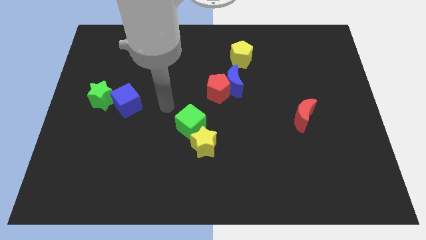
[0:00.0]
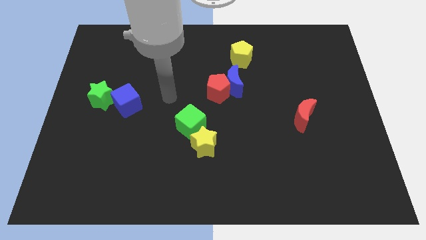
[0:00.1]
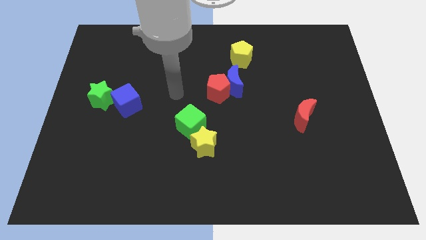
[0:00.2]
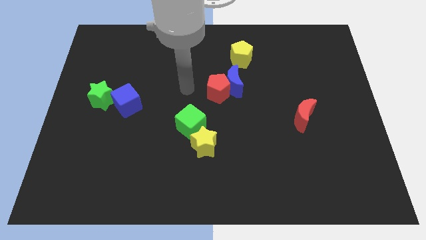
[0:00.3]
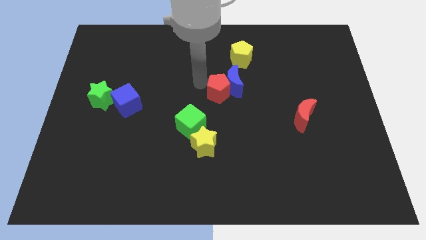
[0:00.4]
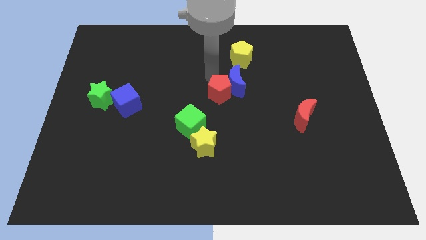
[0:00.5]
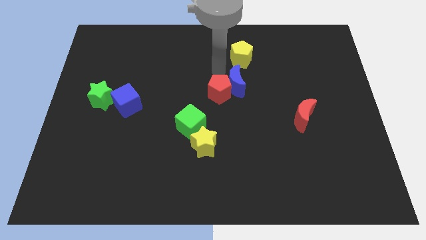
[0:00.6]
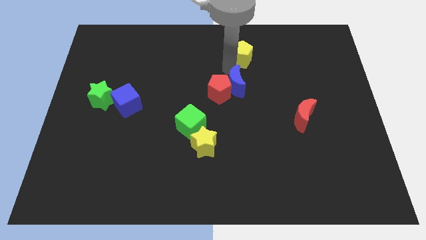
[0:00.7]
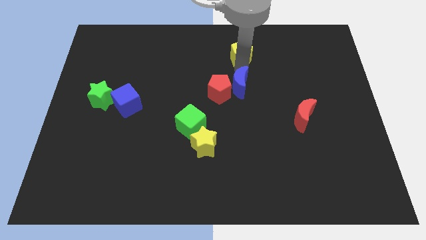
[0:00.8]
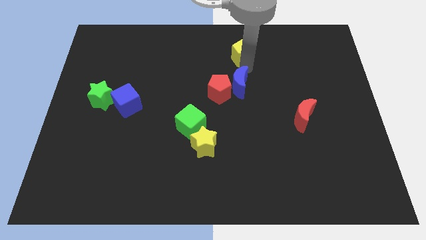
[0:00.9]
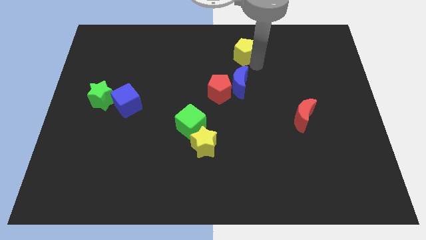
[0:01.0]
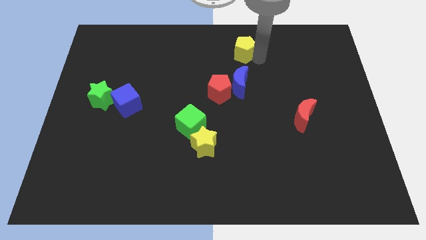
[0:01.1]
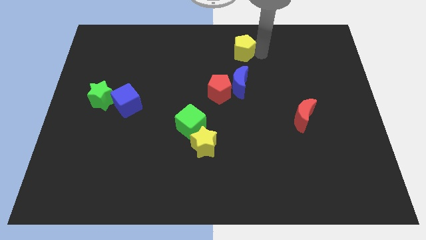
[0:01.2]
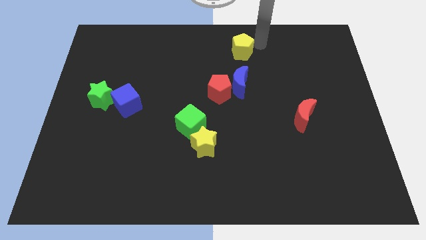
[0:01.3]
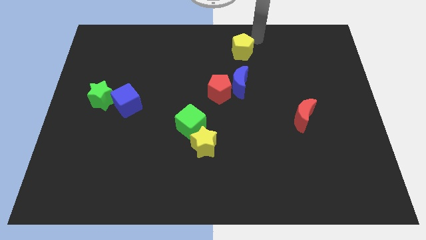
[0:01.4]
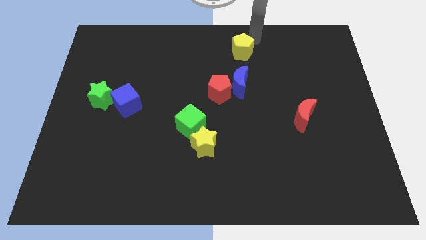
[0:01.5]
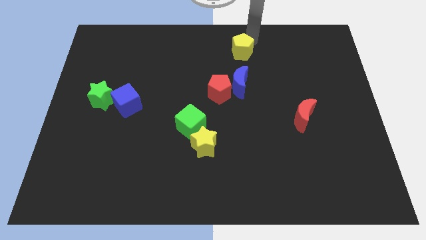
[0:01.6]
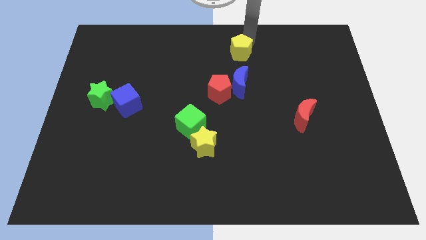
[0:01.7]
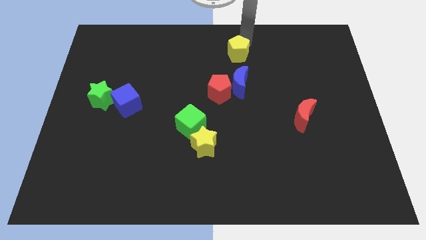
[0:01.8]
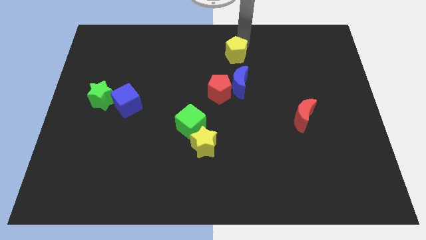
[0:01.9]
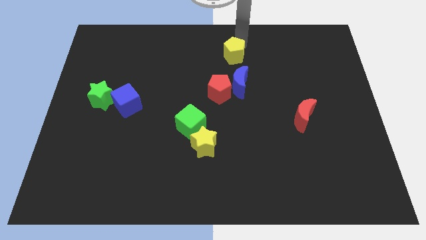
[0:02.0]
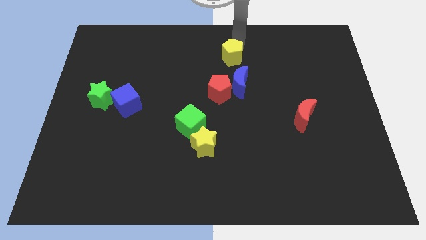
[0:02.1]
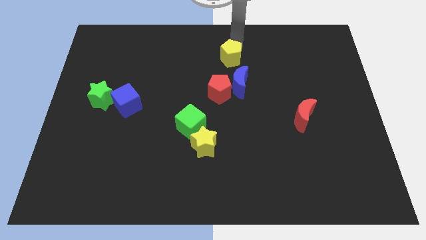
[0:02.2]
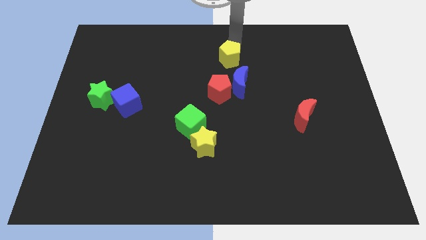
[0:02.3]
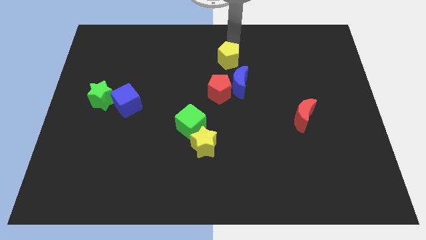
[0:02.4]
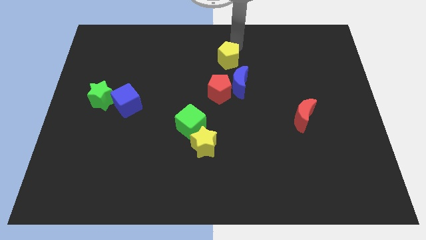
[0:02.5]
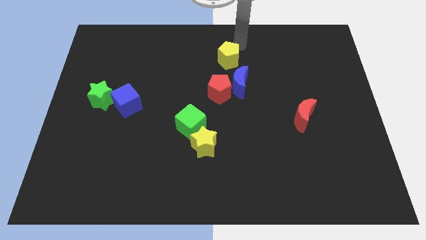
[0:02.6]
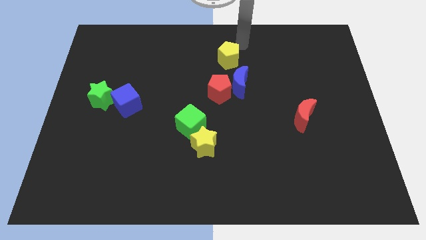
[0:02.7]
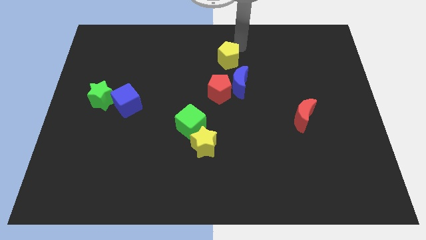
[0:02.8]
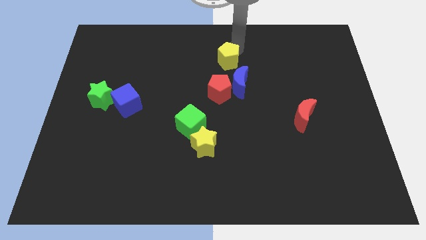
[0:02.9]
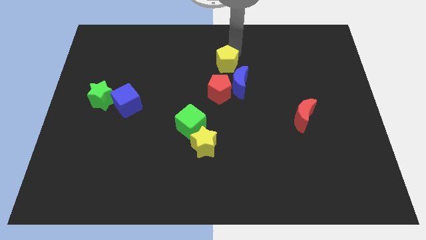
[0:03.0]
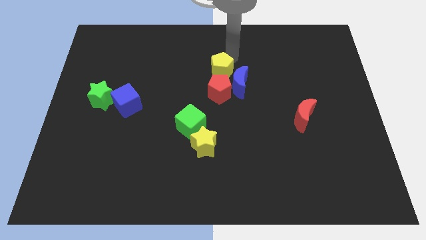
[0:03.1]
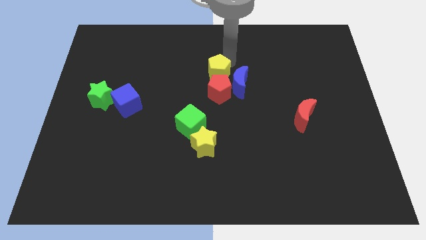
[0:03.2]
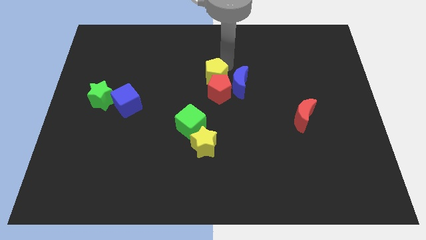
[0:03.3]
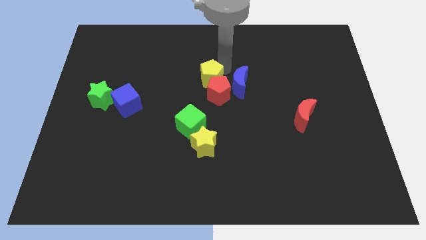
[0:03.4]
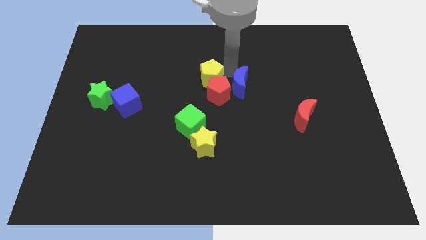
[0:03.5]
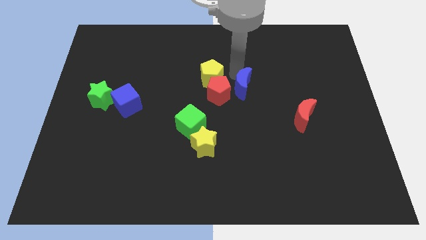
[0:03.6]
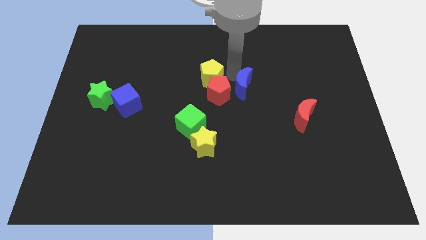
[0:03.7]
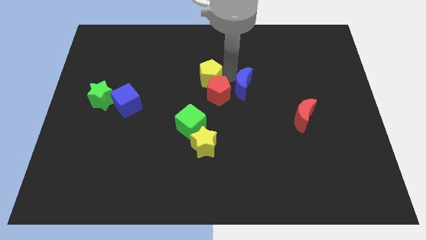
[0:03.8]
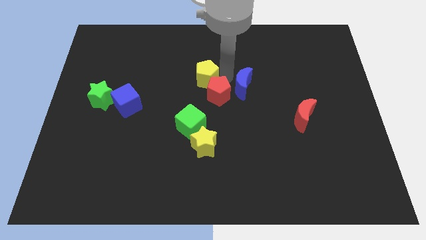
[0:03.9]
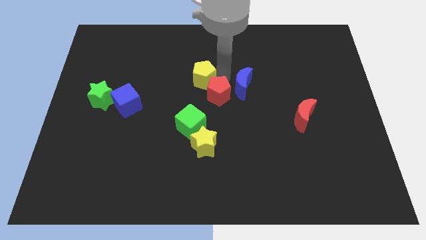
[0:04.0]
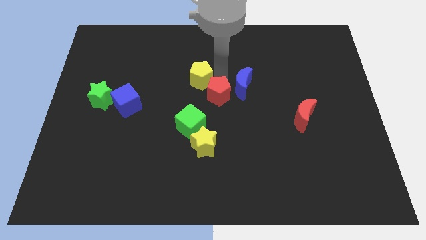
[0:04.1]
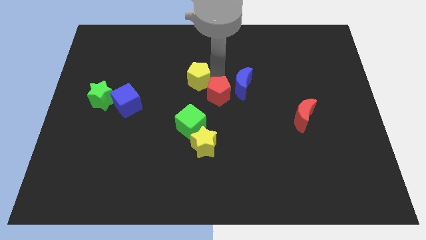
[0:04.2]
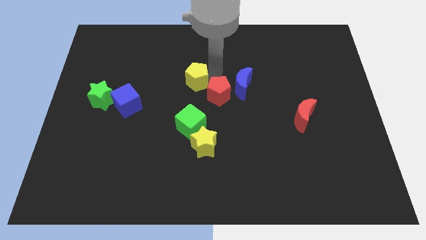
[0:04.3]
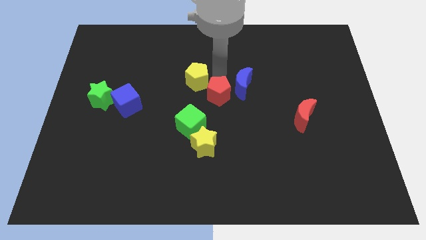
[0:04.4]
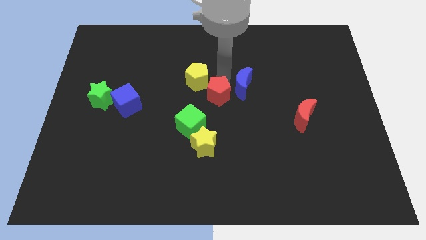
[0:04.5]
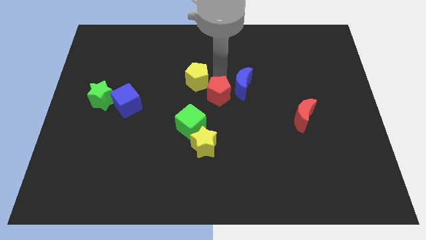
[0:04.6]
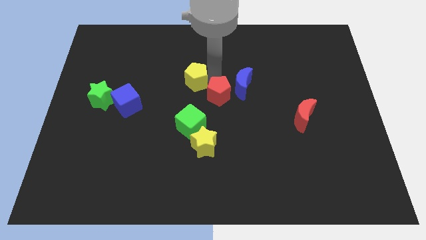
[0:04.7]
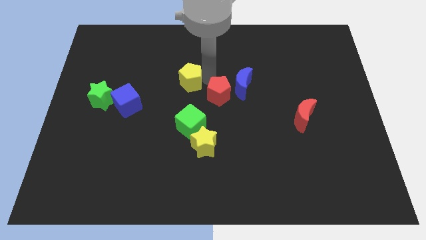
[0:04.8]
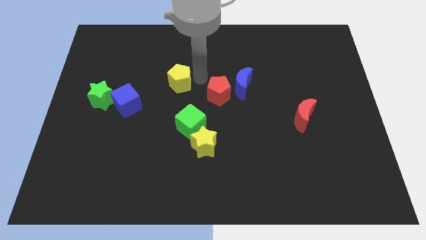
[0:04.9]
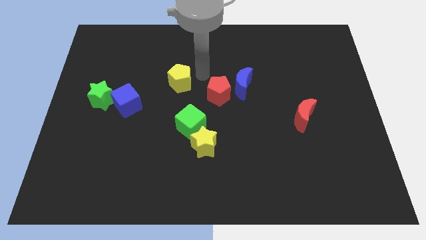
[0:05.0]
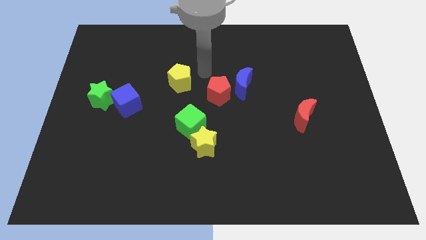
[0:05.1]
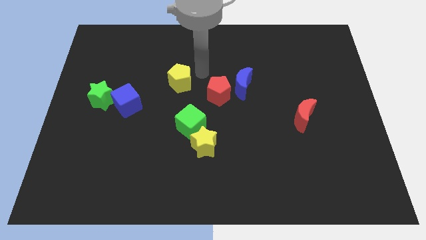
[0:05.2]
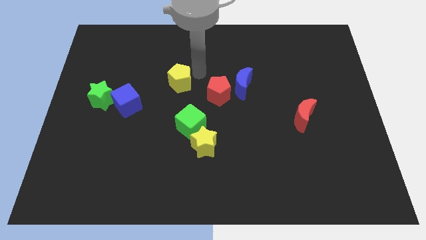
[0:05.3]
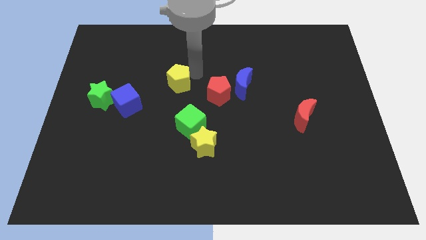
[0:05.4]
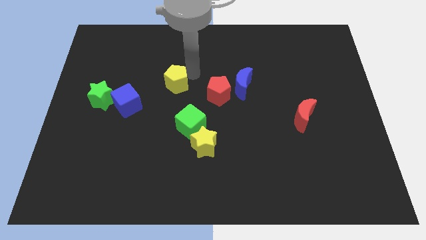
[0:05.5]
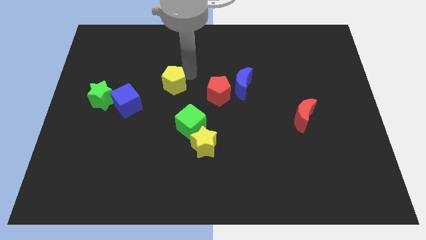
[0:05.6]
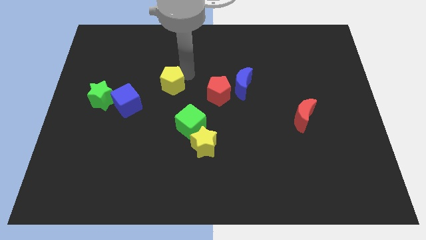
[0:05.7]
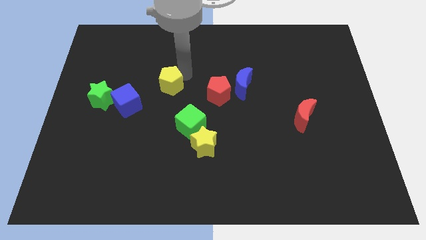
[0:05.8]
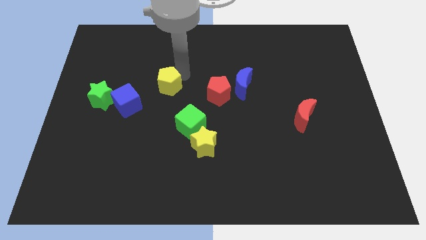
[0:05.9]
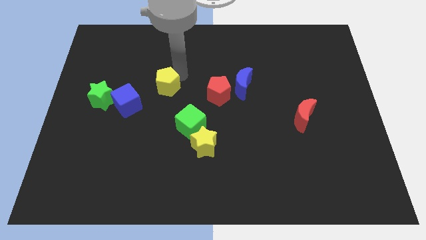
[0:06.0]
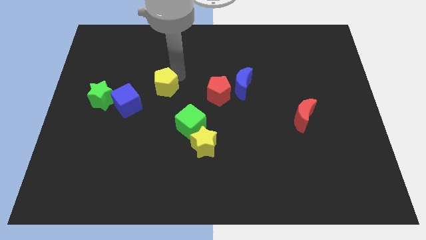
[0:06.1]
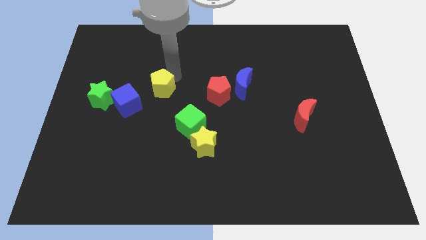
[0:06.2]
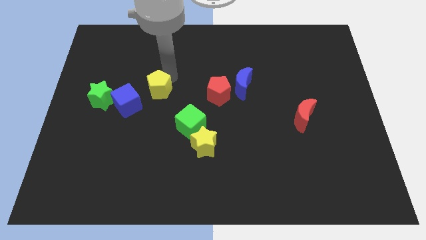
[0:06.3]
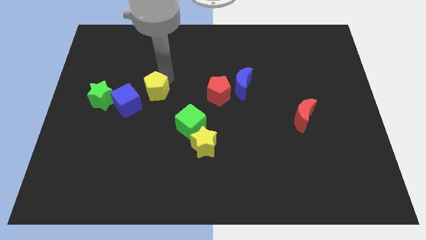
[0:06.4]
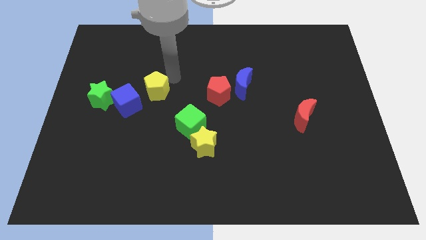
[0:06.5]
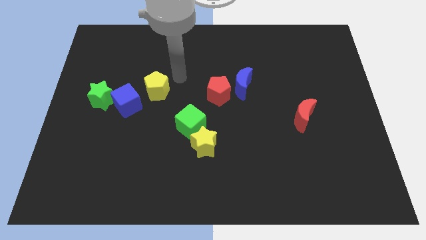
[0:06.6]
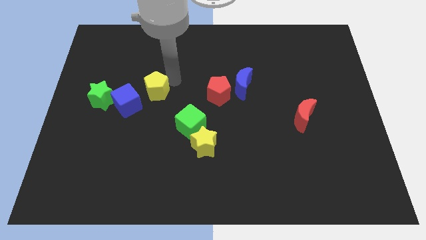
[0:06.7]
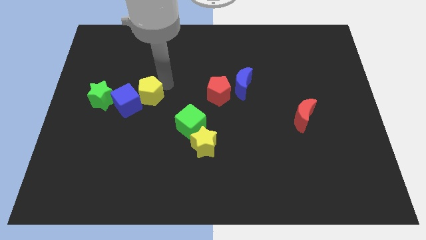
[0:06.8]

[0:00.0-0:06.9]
move the yellow pentagon next to the blue cube

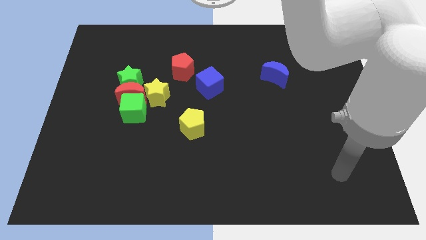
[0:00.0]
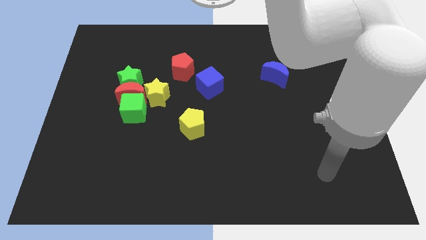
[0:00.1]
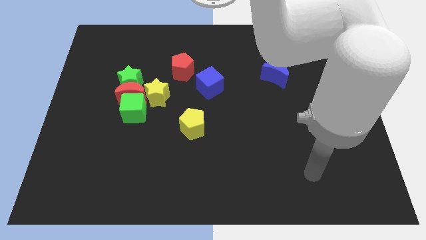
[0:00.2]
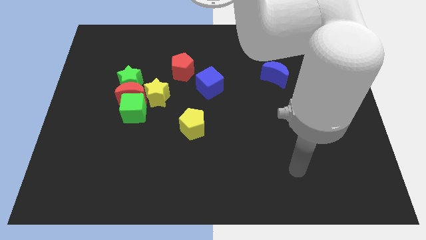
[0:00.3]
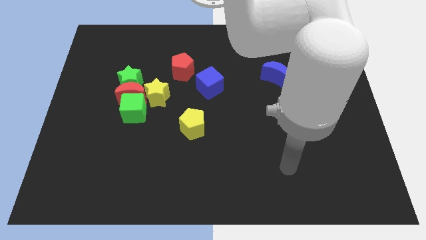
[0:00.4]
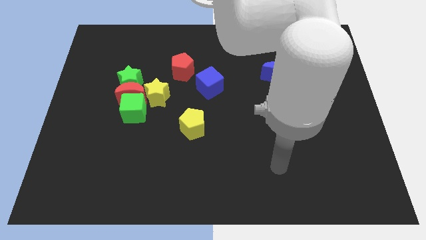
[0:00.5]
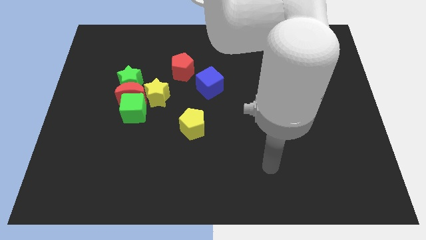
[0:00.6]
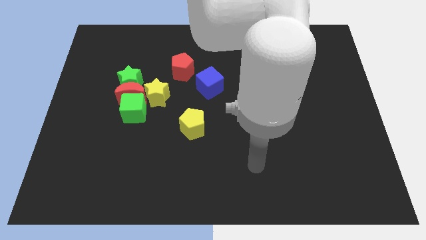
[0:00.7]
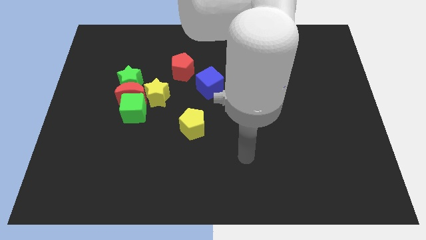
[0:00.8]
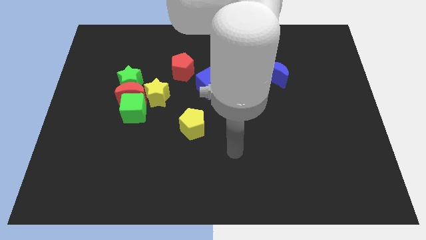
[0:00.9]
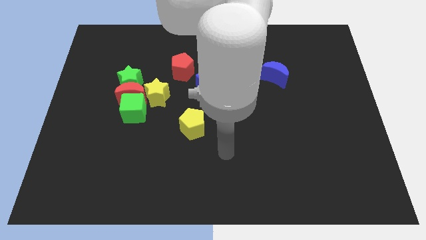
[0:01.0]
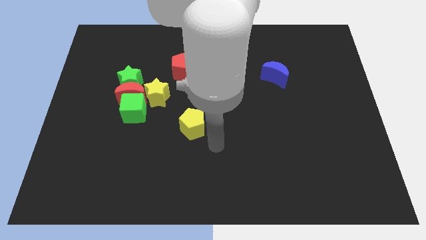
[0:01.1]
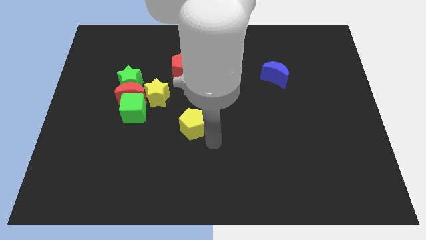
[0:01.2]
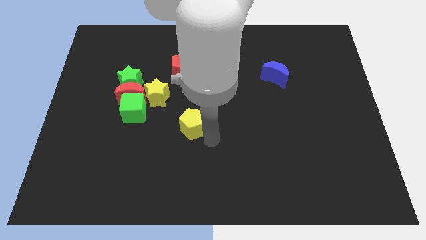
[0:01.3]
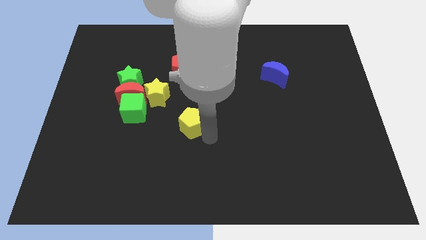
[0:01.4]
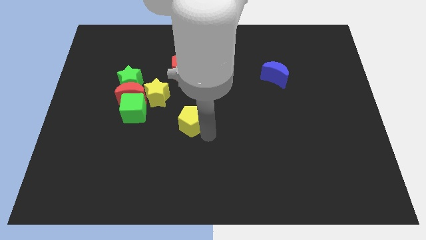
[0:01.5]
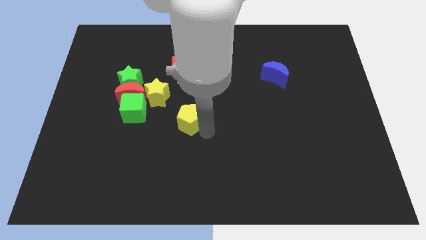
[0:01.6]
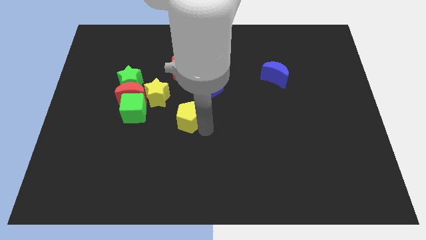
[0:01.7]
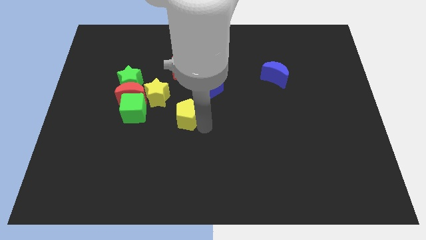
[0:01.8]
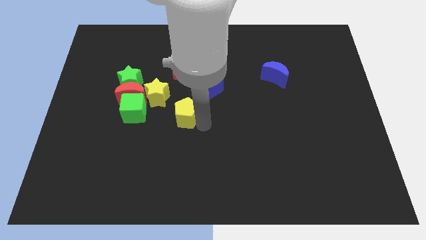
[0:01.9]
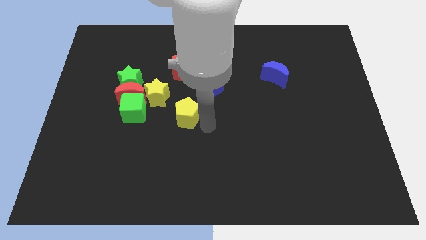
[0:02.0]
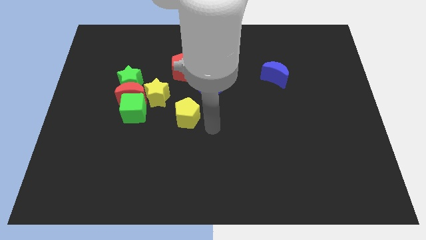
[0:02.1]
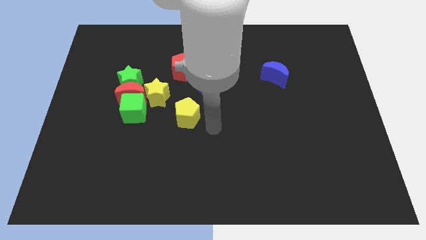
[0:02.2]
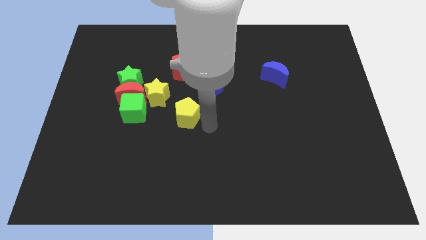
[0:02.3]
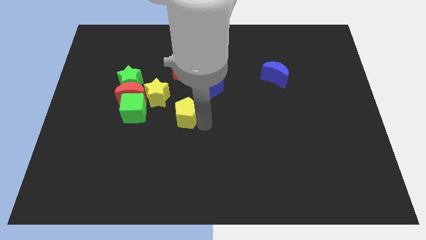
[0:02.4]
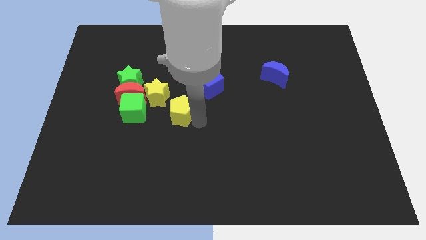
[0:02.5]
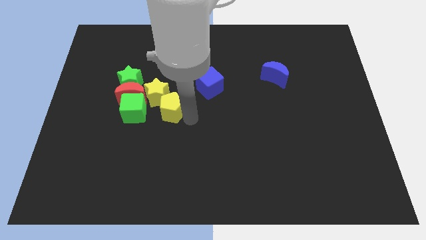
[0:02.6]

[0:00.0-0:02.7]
put the yellow pentagon next to the yellow star
